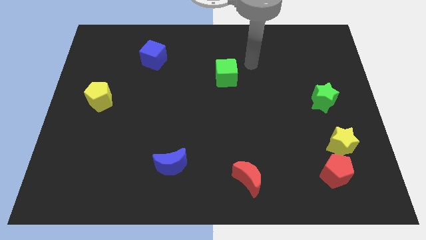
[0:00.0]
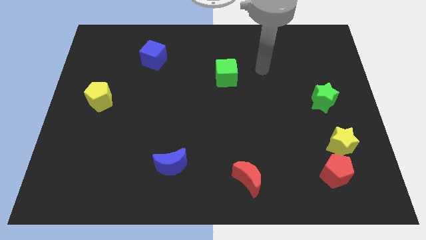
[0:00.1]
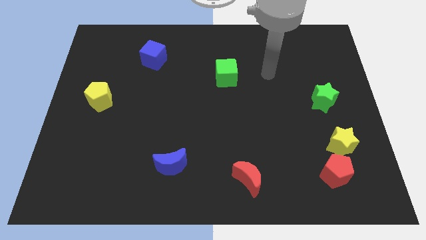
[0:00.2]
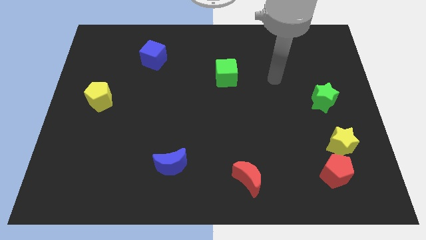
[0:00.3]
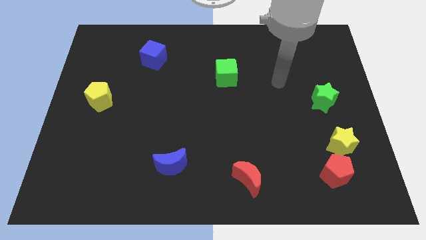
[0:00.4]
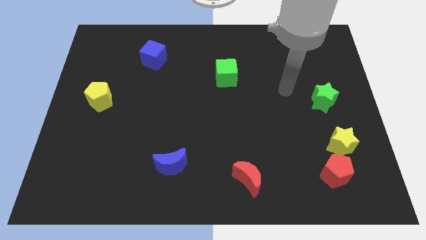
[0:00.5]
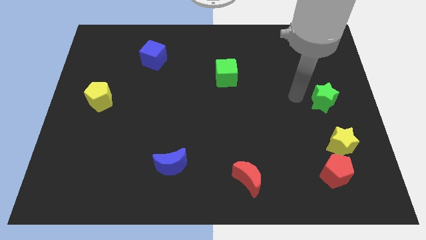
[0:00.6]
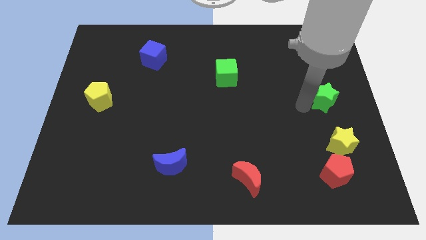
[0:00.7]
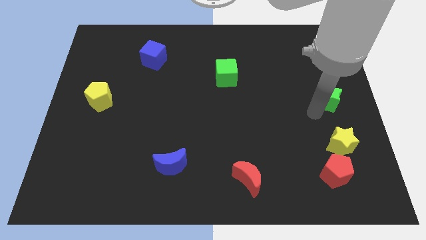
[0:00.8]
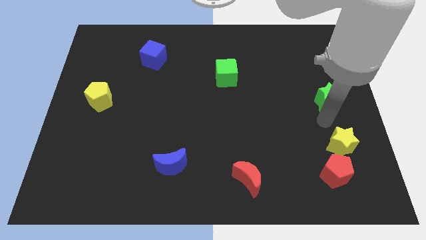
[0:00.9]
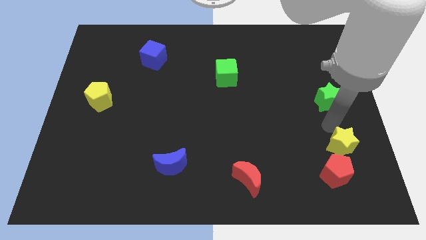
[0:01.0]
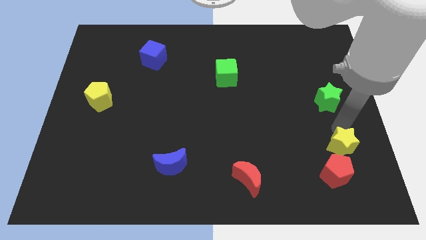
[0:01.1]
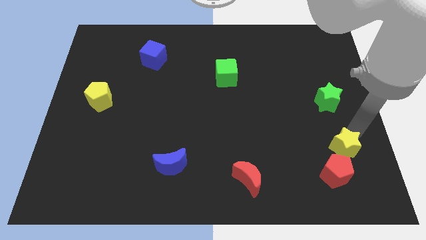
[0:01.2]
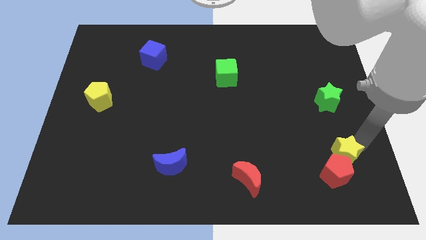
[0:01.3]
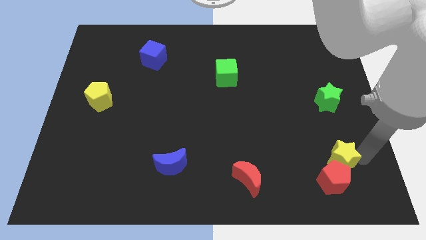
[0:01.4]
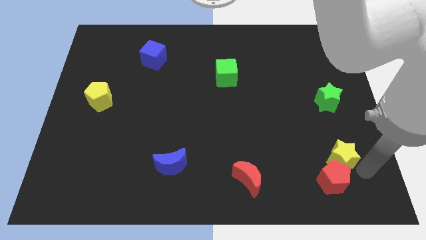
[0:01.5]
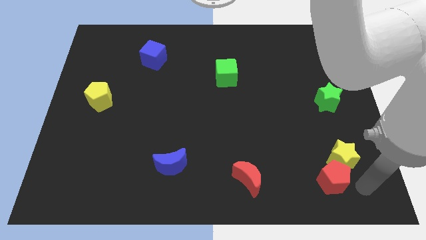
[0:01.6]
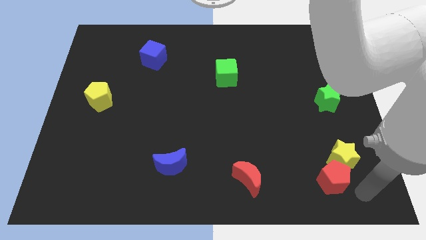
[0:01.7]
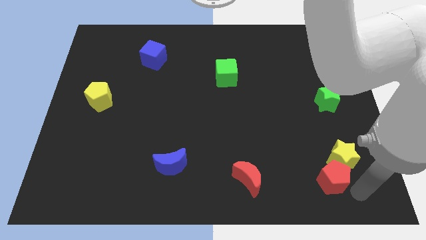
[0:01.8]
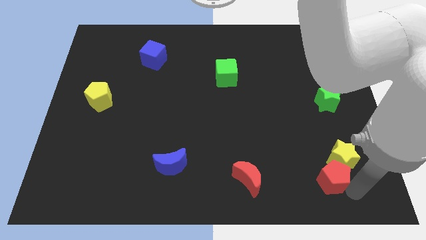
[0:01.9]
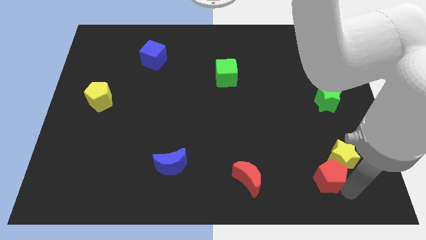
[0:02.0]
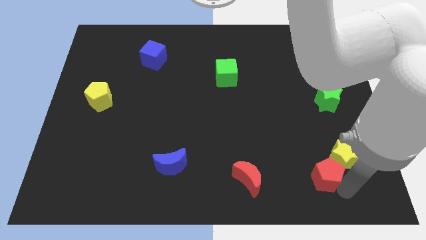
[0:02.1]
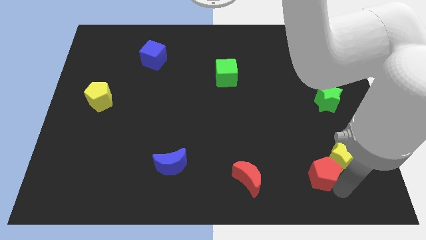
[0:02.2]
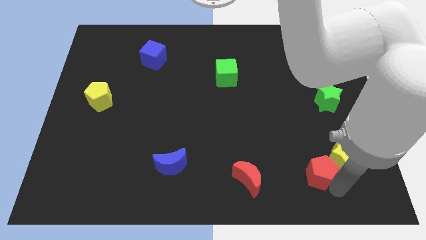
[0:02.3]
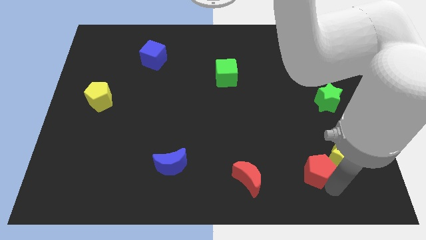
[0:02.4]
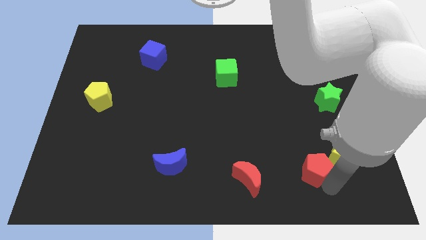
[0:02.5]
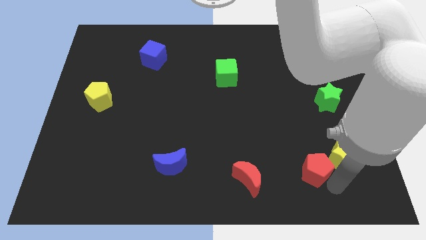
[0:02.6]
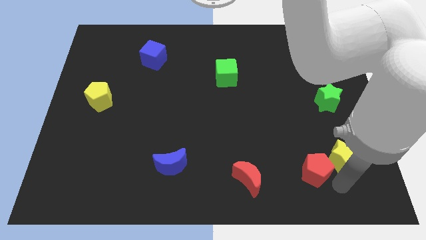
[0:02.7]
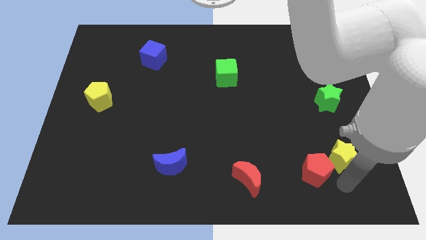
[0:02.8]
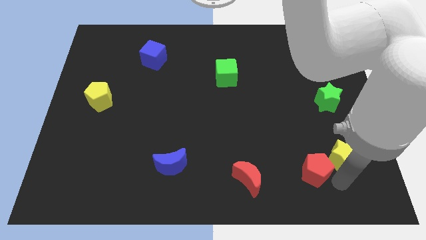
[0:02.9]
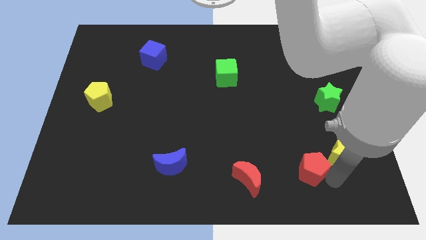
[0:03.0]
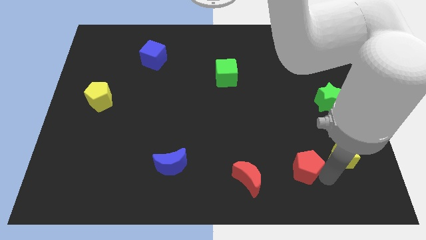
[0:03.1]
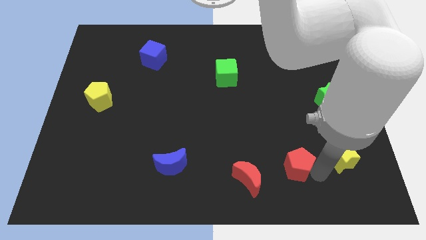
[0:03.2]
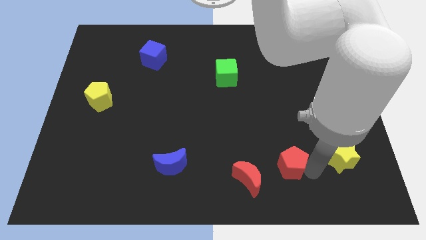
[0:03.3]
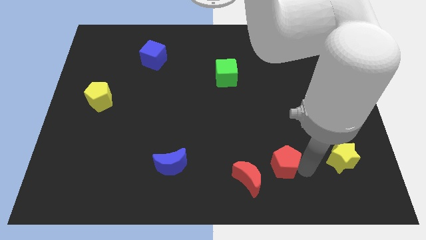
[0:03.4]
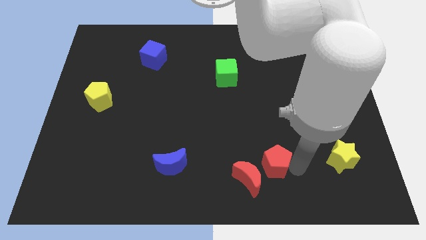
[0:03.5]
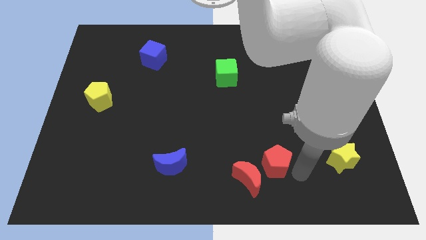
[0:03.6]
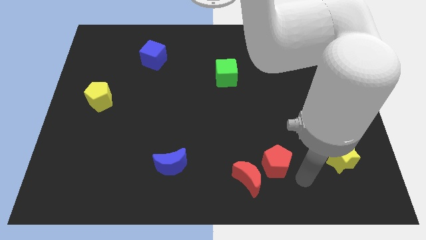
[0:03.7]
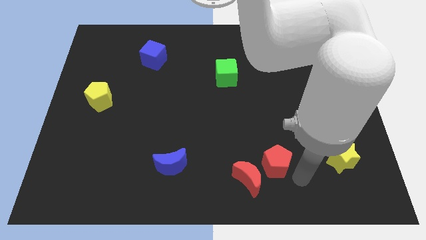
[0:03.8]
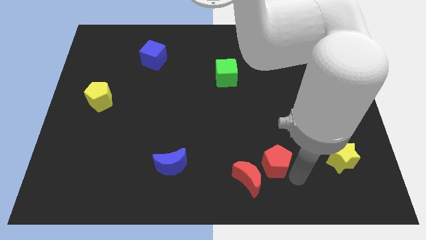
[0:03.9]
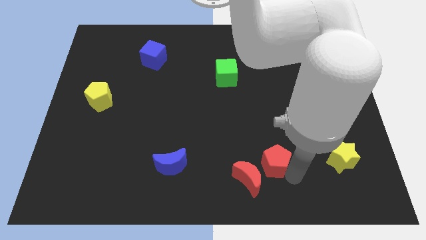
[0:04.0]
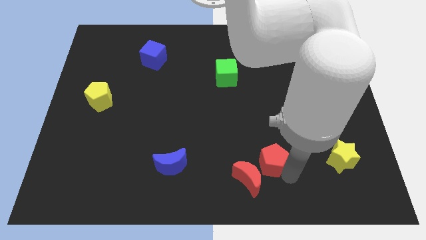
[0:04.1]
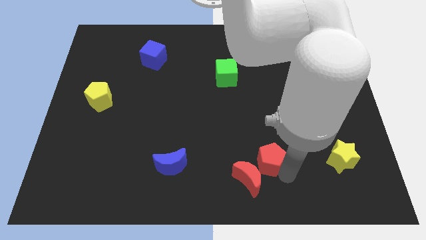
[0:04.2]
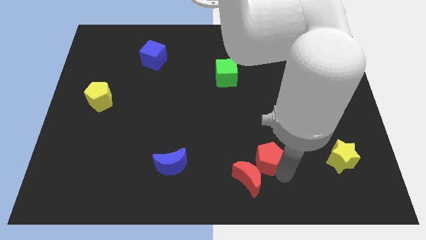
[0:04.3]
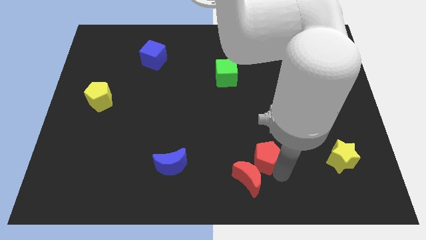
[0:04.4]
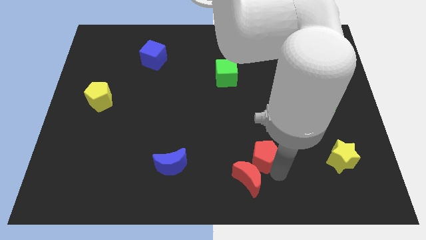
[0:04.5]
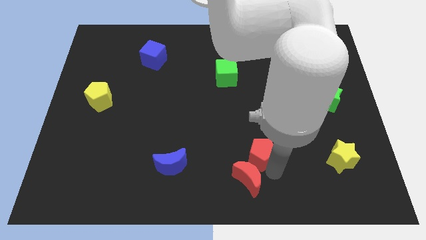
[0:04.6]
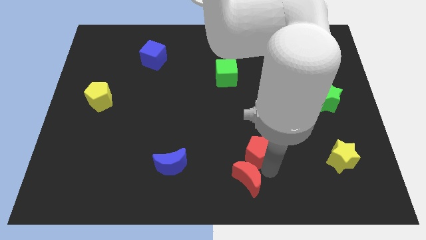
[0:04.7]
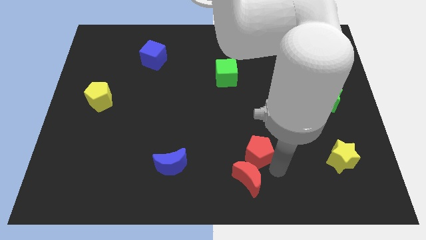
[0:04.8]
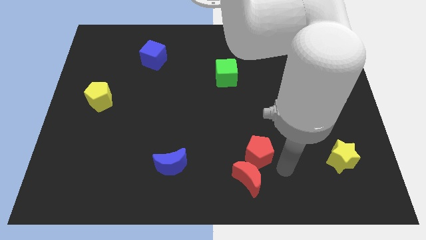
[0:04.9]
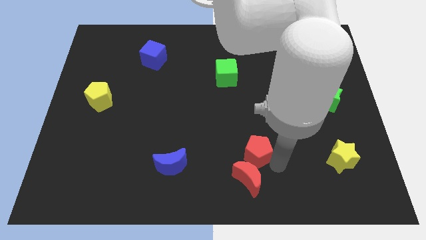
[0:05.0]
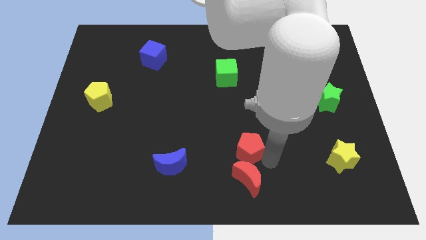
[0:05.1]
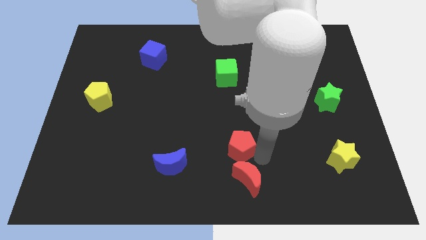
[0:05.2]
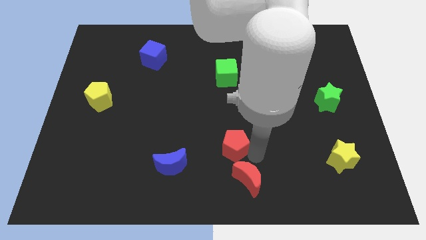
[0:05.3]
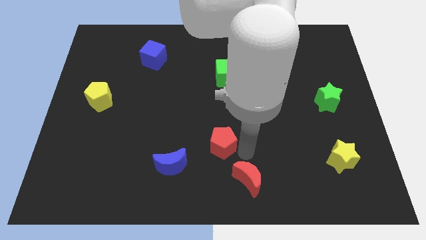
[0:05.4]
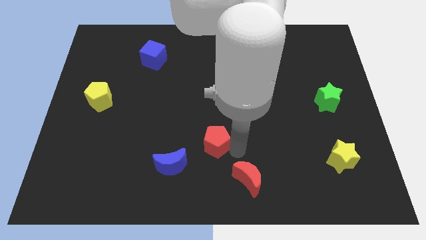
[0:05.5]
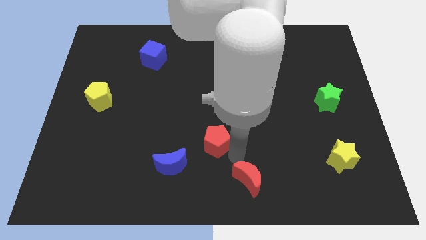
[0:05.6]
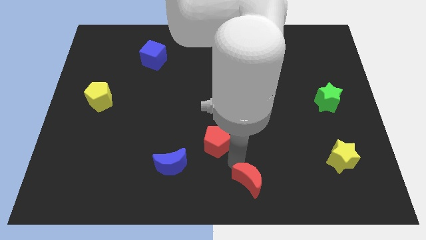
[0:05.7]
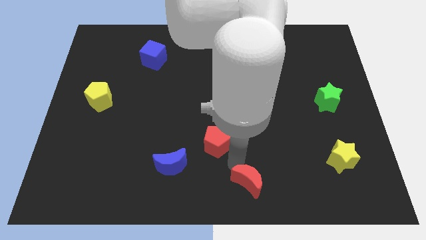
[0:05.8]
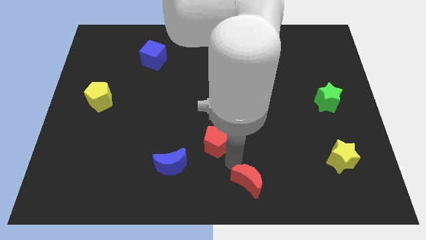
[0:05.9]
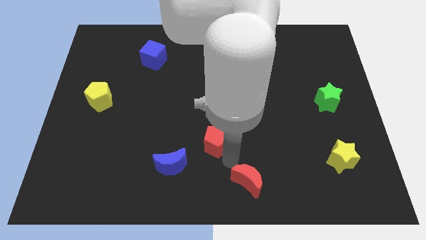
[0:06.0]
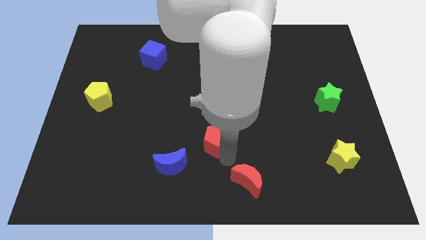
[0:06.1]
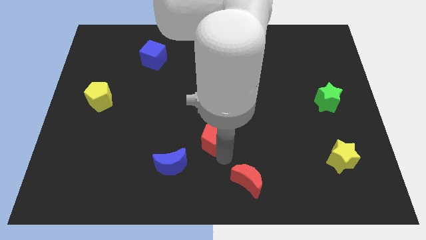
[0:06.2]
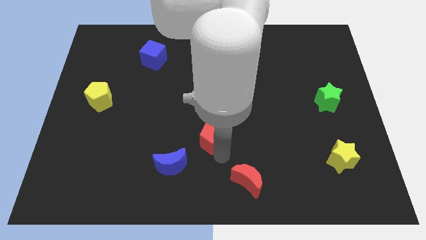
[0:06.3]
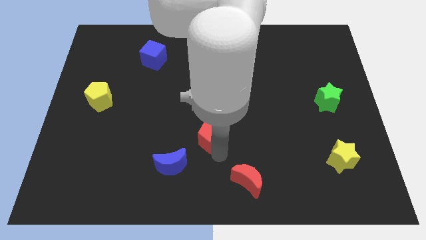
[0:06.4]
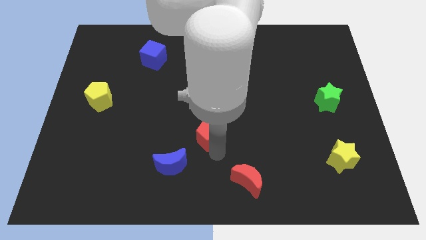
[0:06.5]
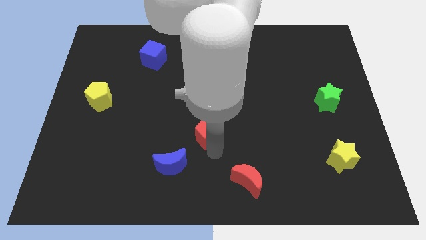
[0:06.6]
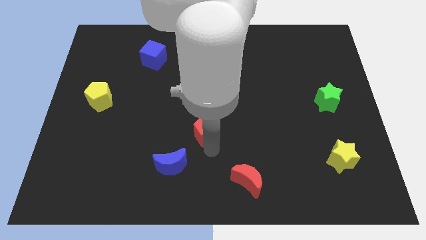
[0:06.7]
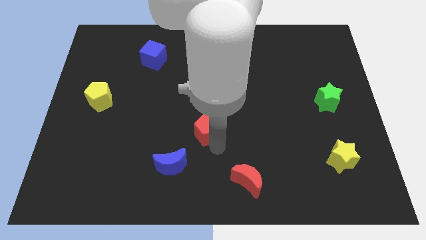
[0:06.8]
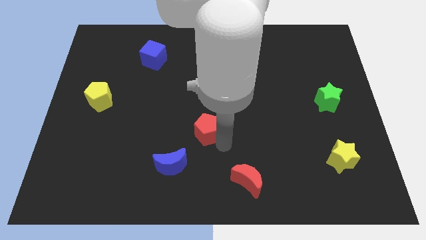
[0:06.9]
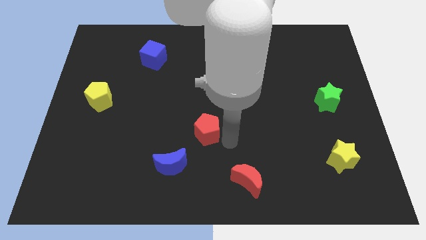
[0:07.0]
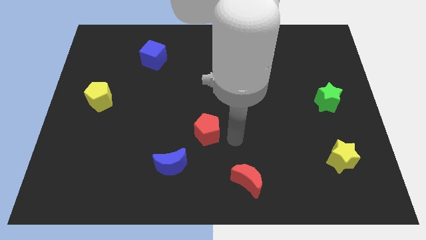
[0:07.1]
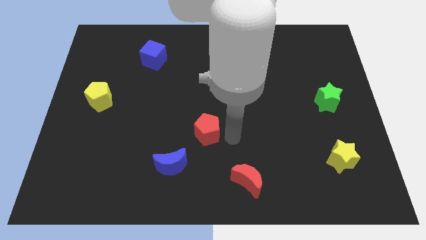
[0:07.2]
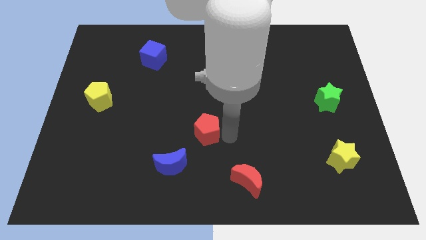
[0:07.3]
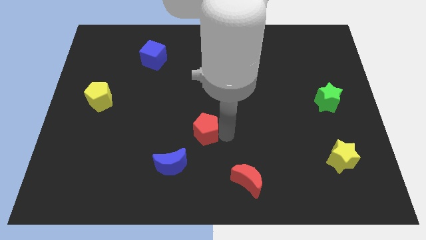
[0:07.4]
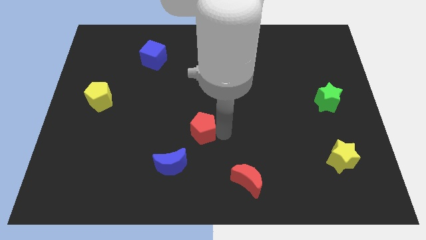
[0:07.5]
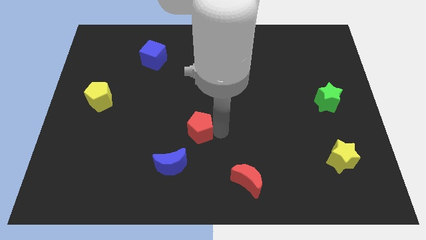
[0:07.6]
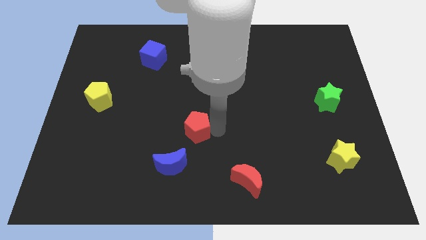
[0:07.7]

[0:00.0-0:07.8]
slide the red pentagon to the top side of the blue moon
